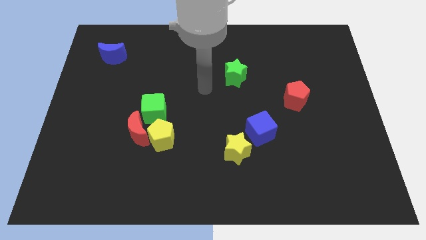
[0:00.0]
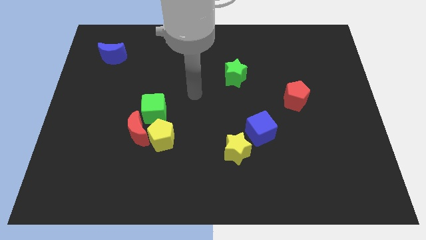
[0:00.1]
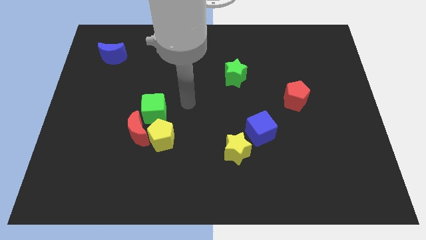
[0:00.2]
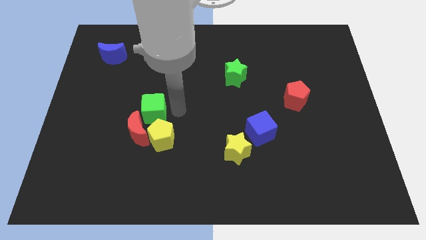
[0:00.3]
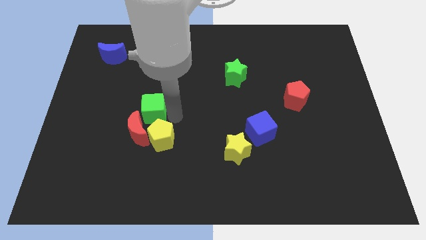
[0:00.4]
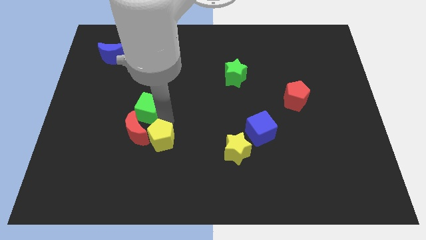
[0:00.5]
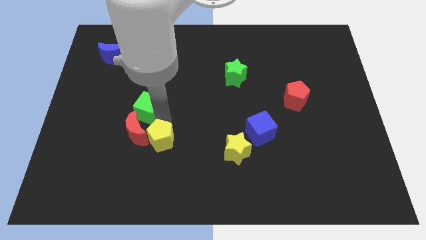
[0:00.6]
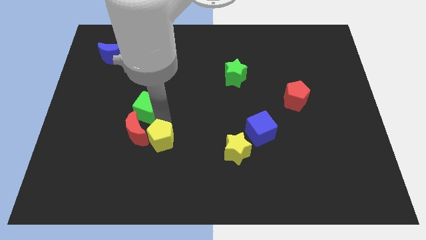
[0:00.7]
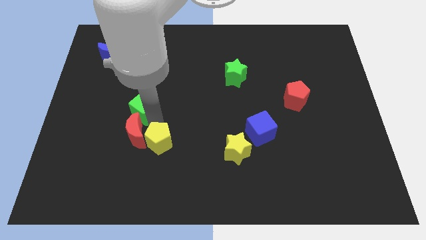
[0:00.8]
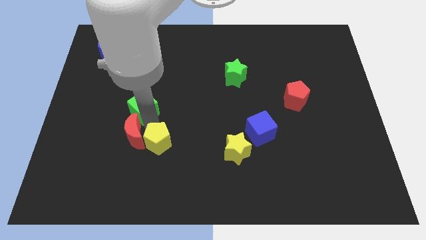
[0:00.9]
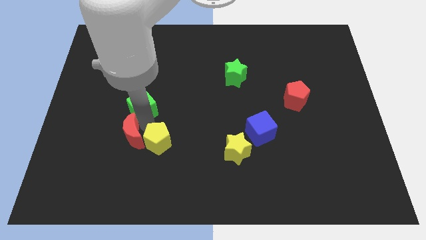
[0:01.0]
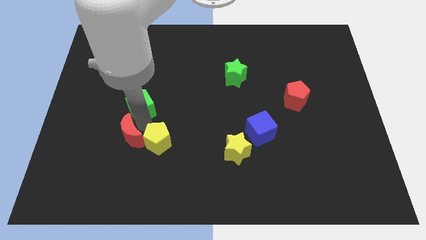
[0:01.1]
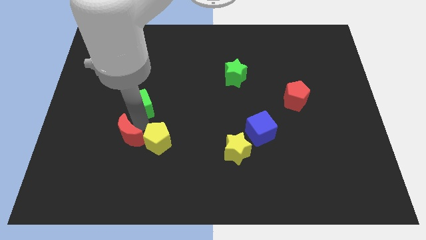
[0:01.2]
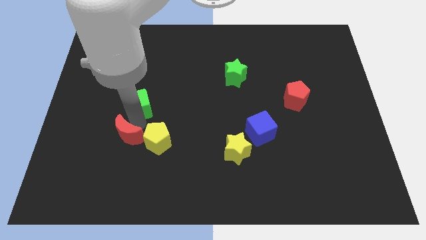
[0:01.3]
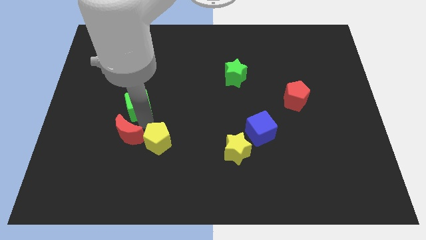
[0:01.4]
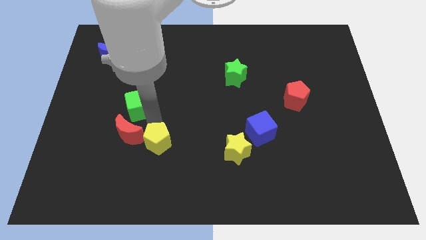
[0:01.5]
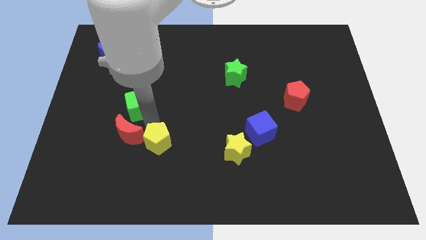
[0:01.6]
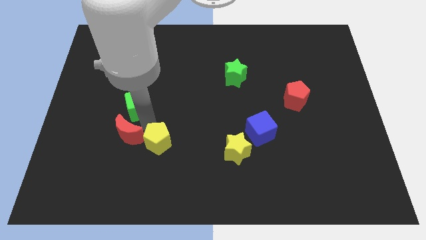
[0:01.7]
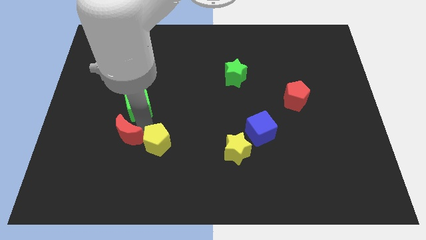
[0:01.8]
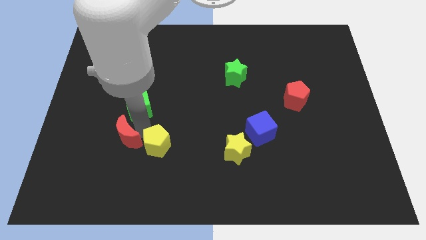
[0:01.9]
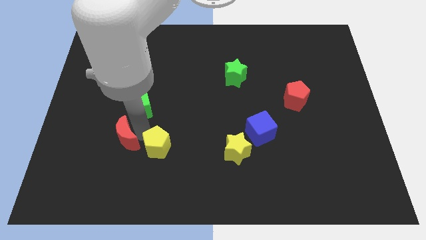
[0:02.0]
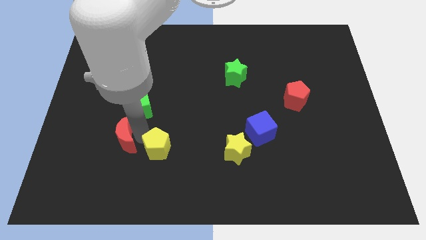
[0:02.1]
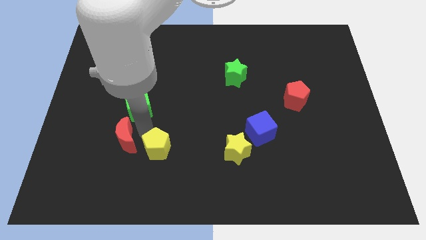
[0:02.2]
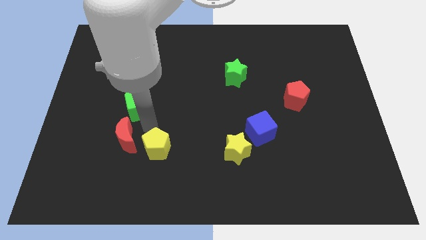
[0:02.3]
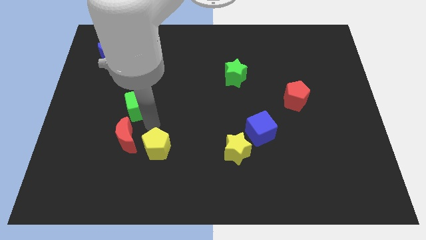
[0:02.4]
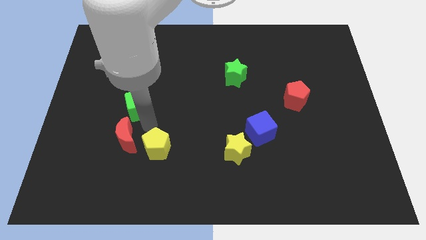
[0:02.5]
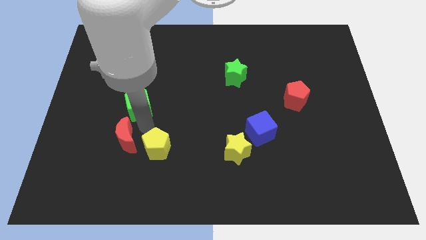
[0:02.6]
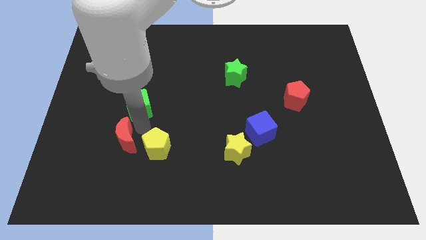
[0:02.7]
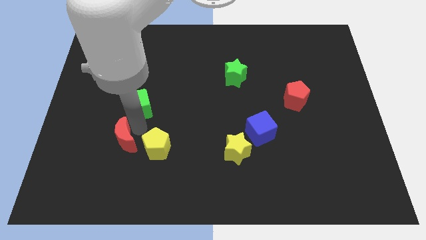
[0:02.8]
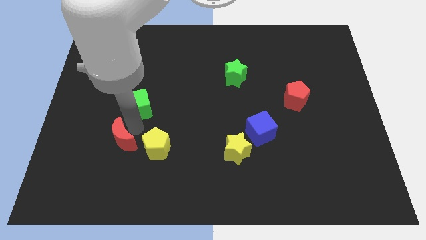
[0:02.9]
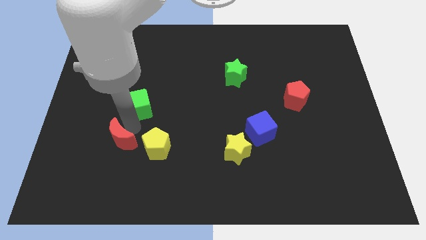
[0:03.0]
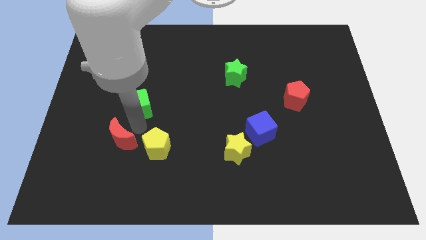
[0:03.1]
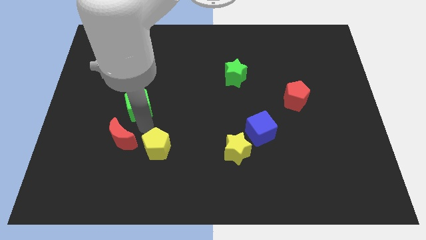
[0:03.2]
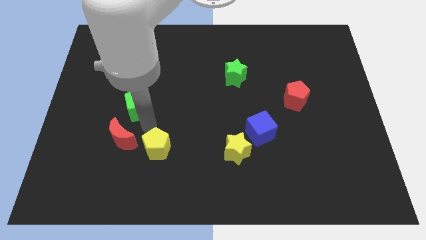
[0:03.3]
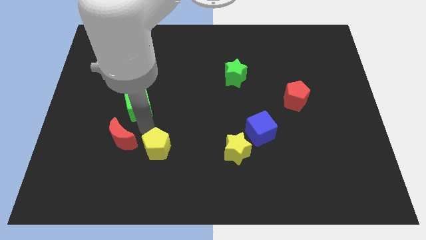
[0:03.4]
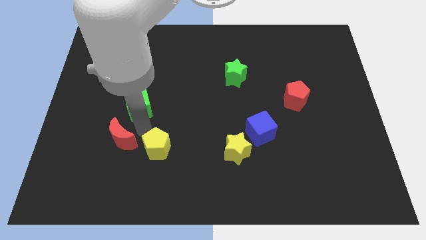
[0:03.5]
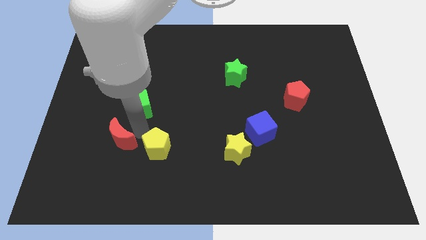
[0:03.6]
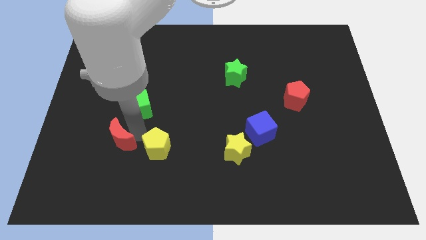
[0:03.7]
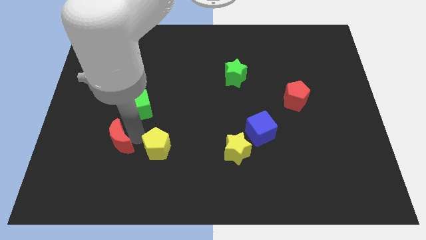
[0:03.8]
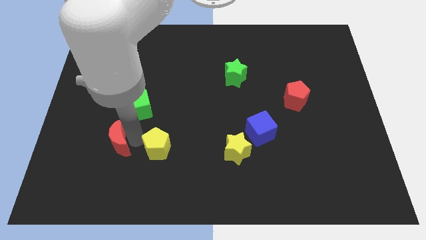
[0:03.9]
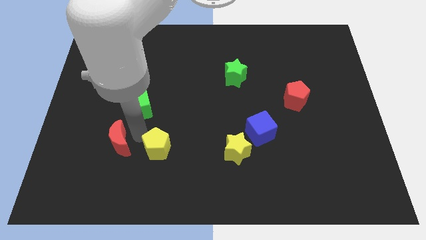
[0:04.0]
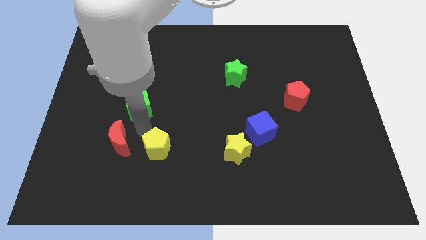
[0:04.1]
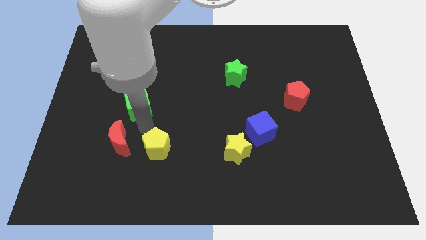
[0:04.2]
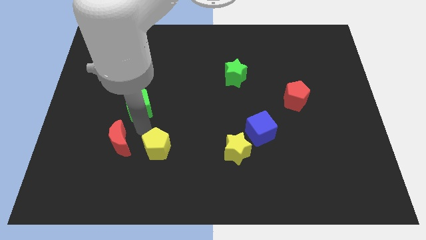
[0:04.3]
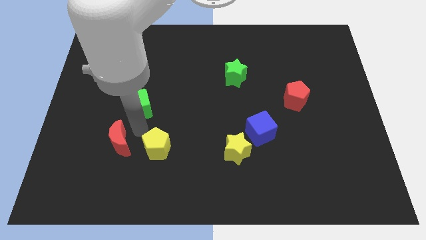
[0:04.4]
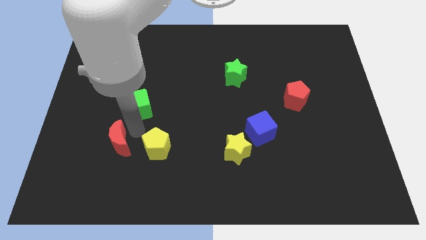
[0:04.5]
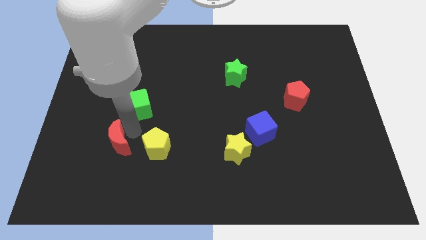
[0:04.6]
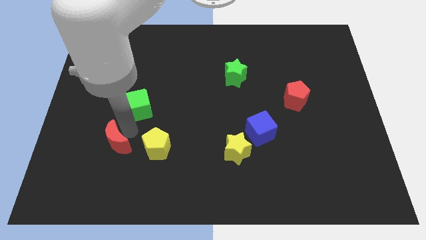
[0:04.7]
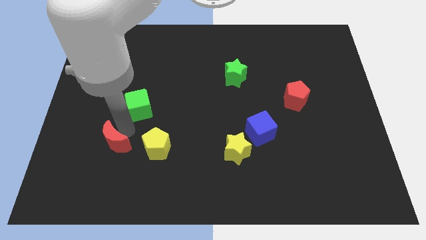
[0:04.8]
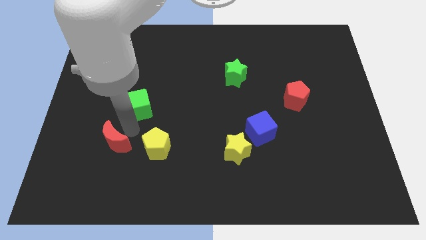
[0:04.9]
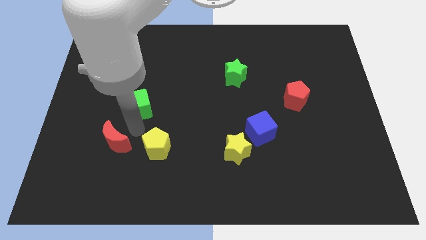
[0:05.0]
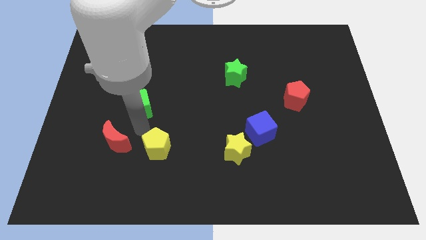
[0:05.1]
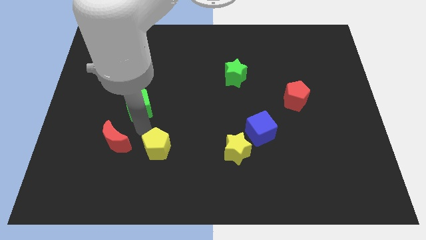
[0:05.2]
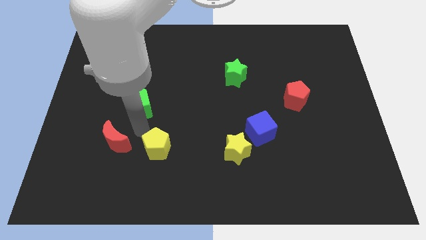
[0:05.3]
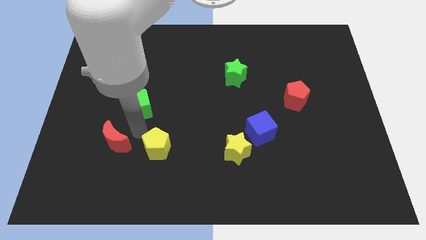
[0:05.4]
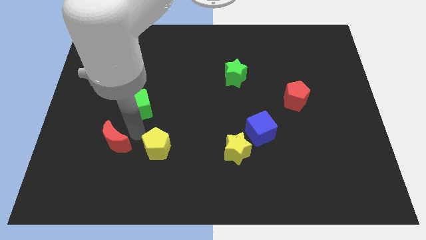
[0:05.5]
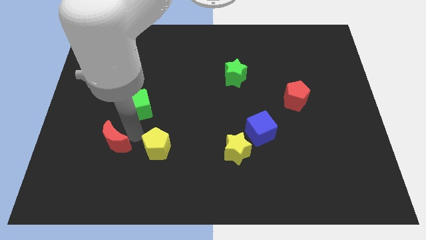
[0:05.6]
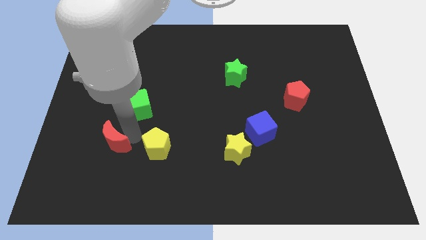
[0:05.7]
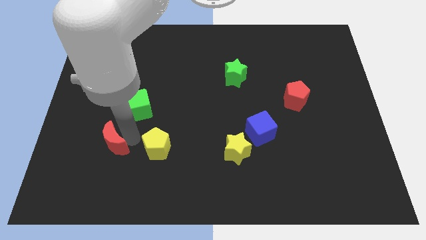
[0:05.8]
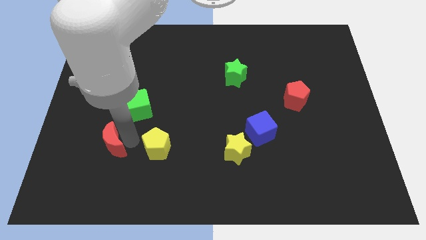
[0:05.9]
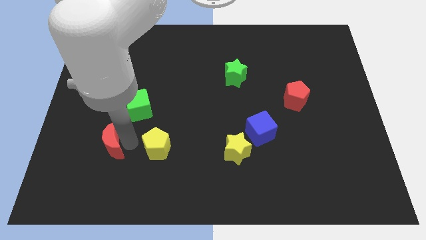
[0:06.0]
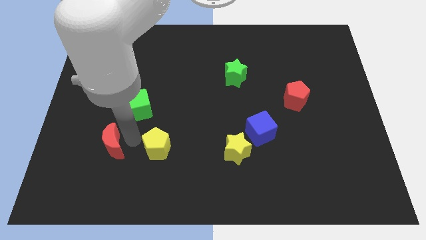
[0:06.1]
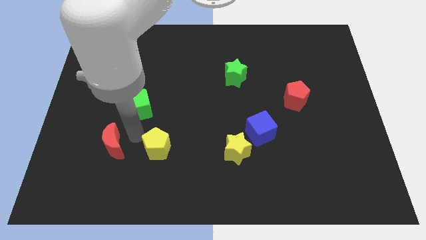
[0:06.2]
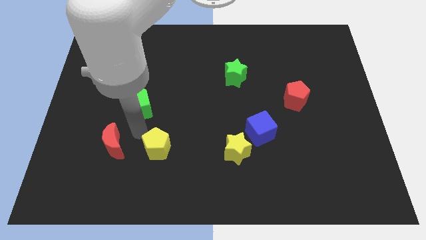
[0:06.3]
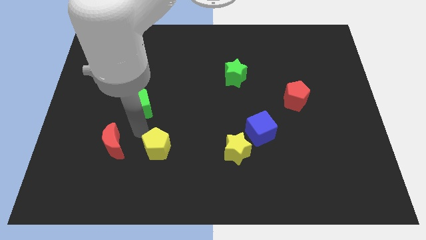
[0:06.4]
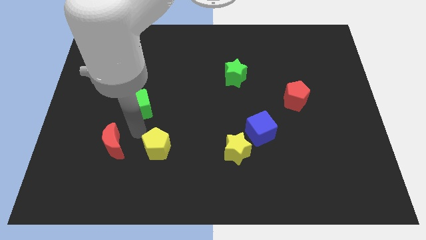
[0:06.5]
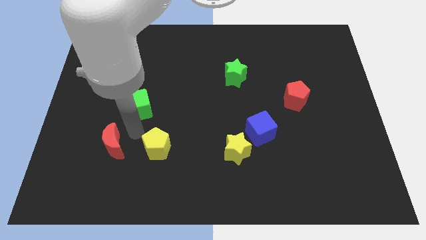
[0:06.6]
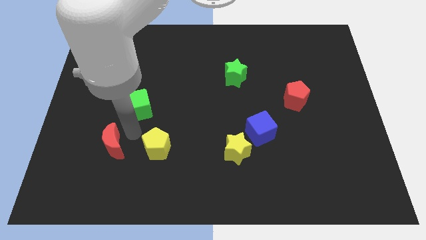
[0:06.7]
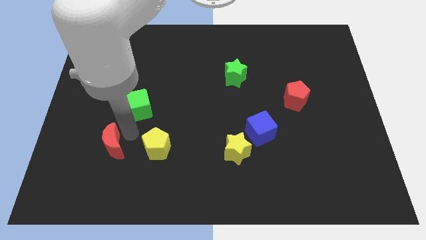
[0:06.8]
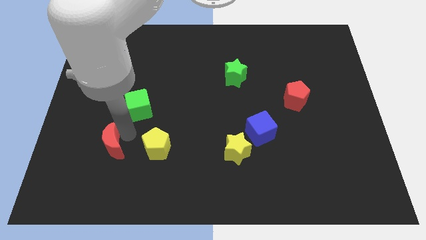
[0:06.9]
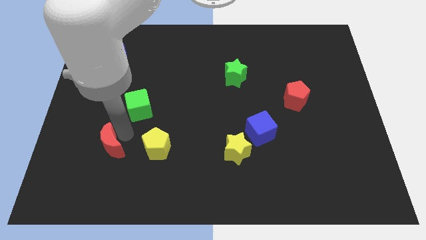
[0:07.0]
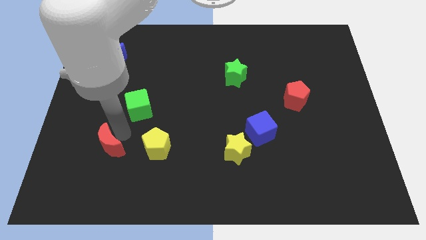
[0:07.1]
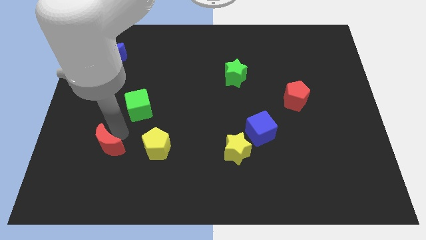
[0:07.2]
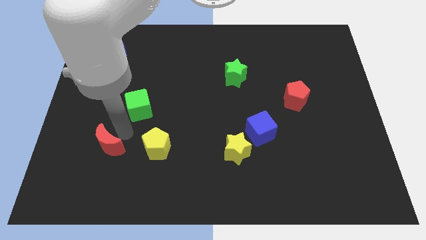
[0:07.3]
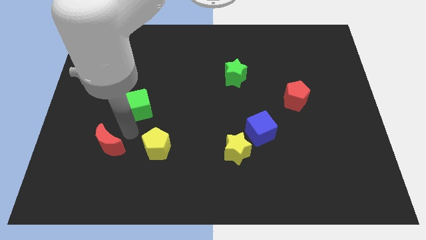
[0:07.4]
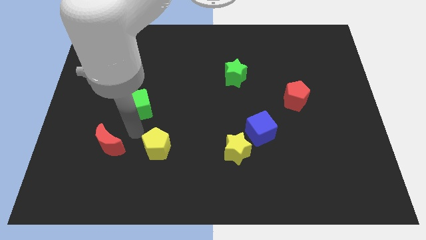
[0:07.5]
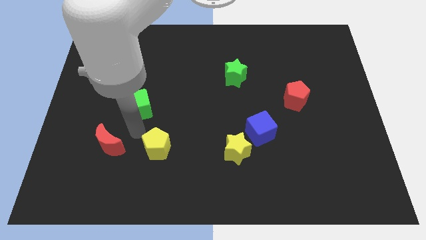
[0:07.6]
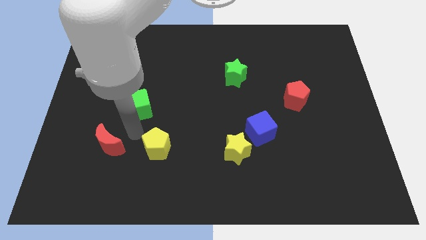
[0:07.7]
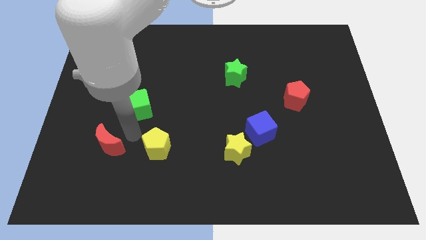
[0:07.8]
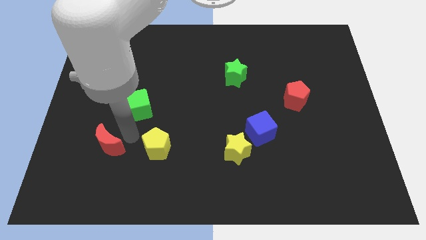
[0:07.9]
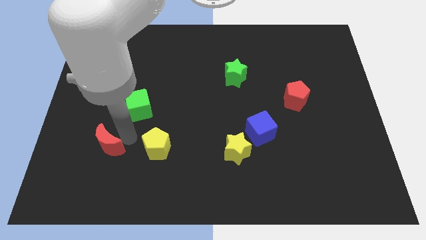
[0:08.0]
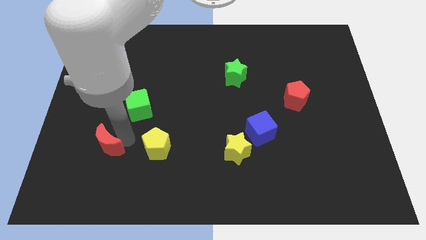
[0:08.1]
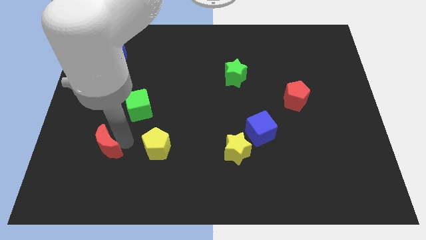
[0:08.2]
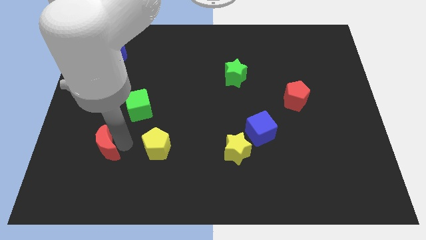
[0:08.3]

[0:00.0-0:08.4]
separate the red moon from the yellow pentagon and green cube

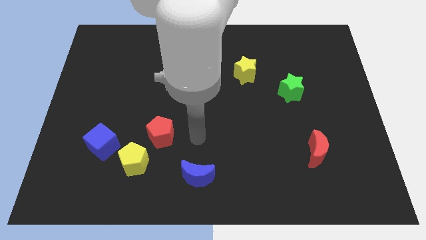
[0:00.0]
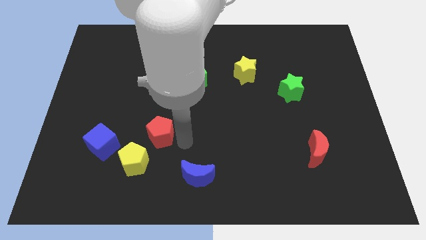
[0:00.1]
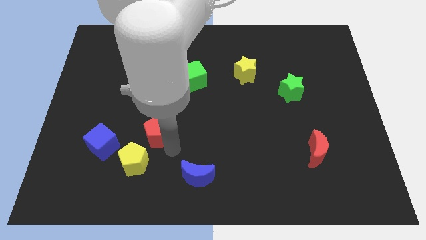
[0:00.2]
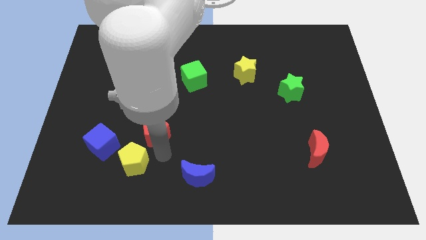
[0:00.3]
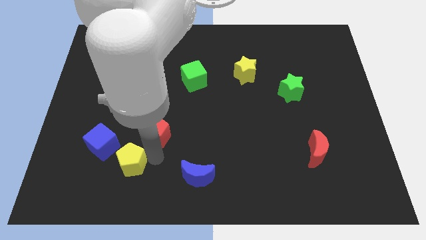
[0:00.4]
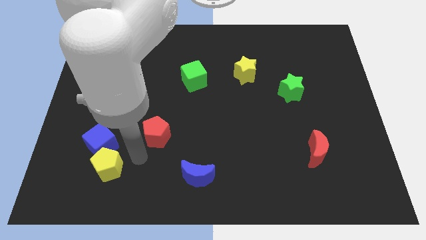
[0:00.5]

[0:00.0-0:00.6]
move the red pentagon away from the yellow pentagon

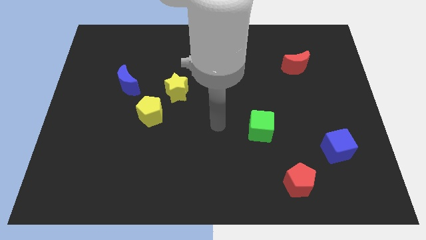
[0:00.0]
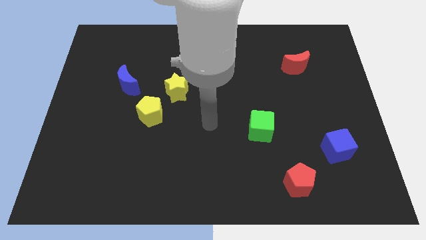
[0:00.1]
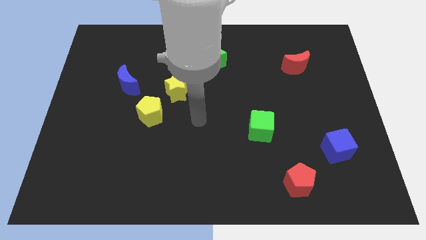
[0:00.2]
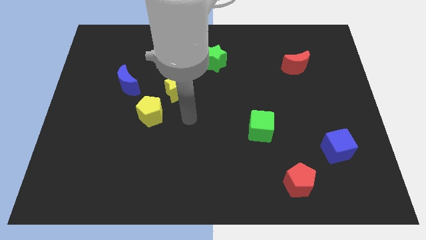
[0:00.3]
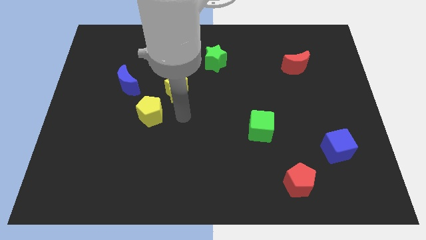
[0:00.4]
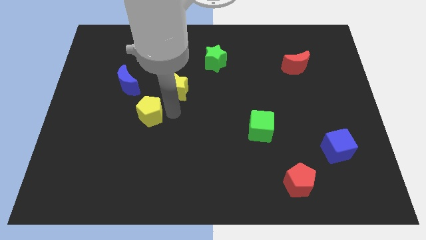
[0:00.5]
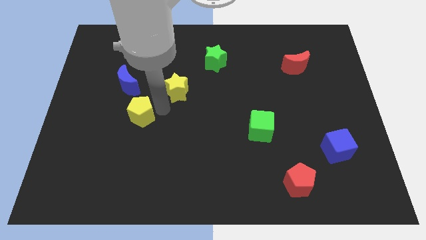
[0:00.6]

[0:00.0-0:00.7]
pull the yellow star apart from the yellow pentagon
